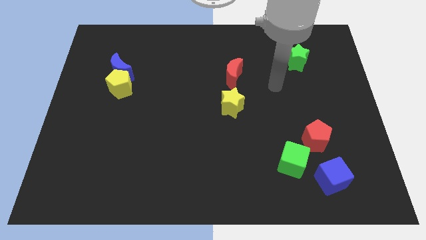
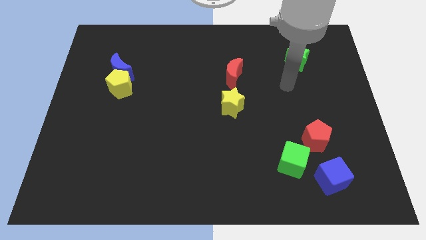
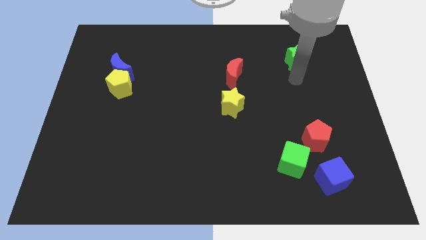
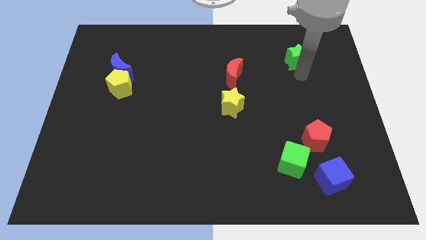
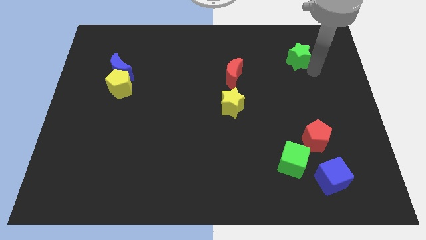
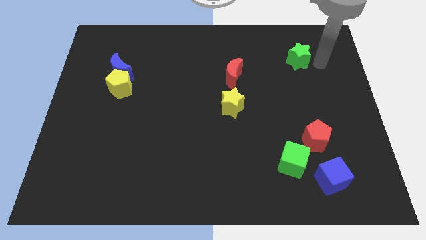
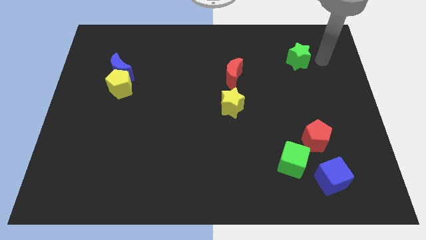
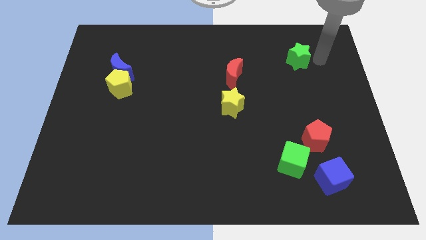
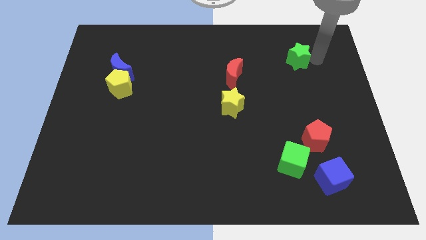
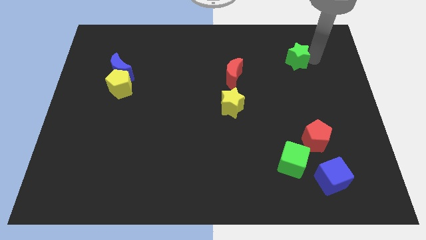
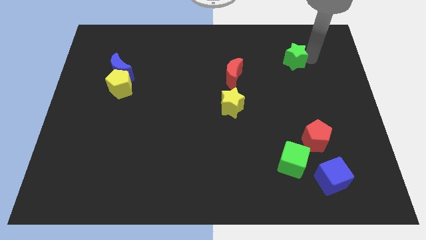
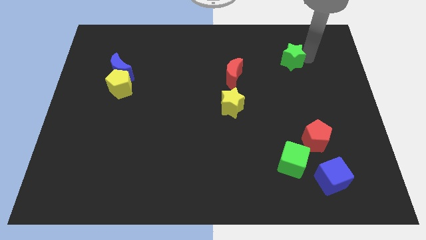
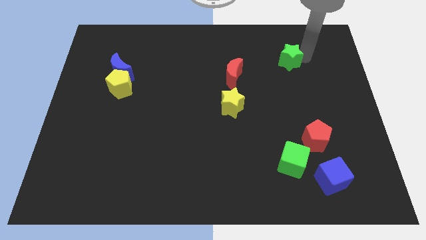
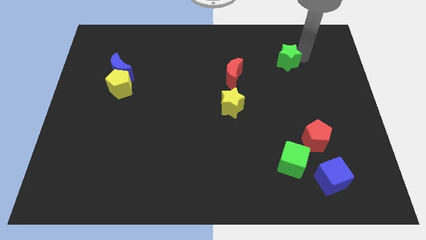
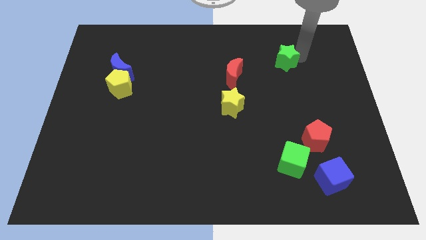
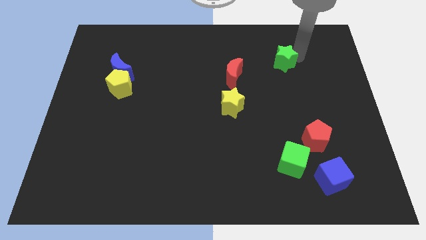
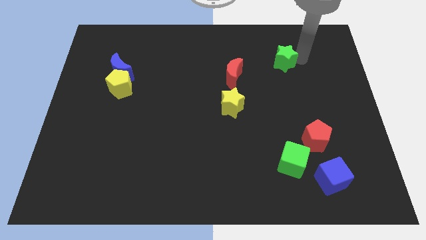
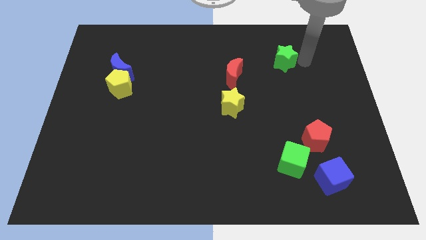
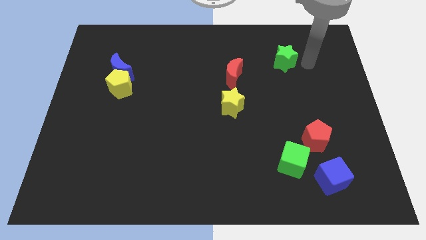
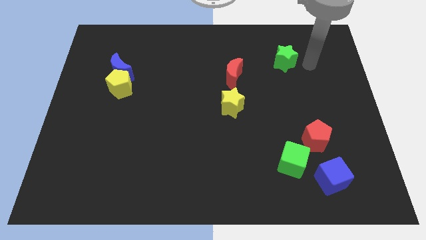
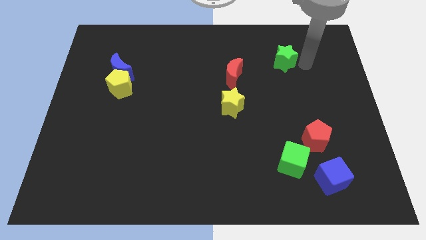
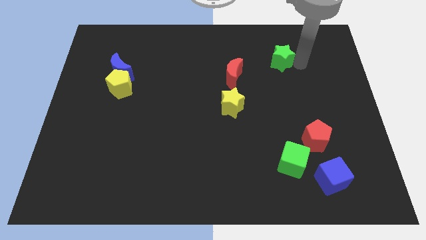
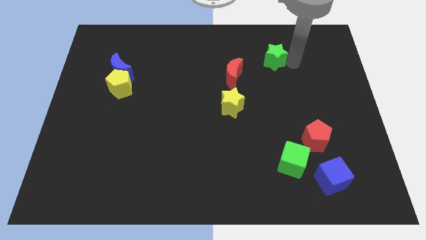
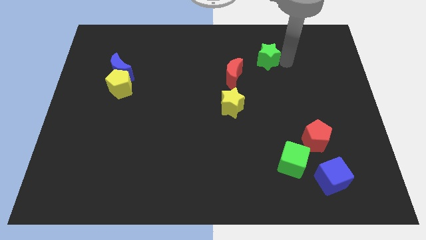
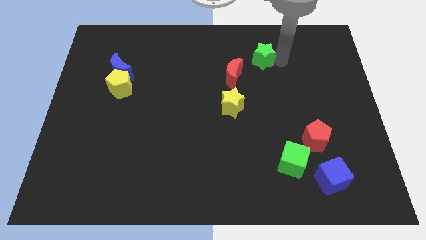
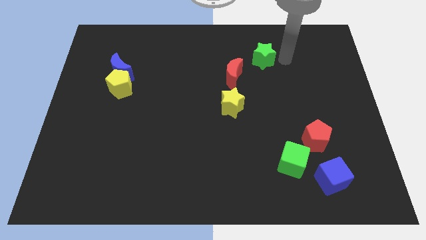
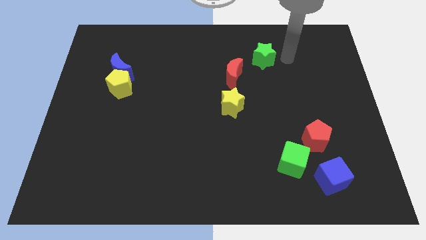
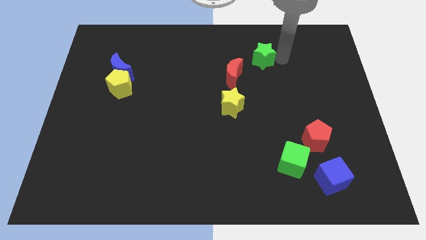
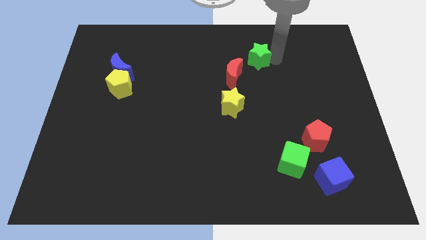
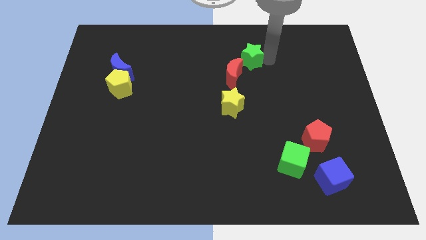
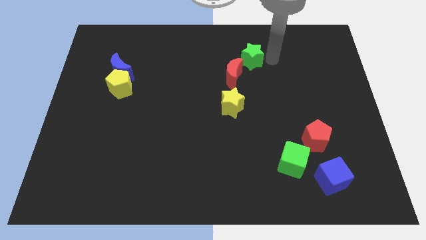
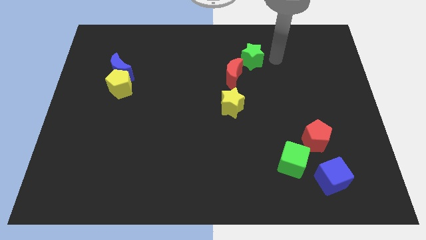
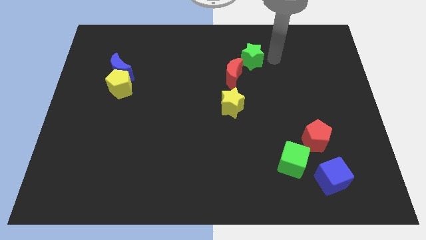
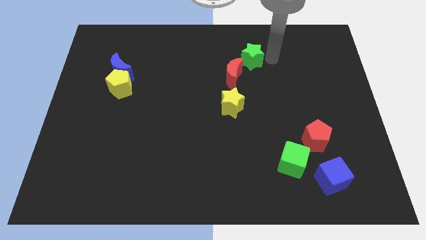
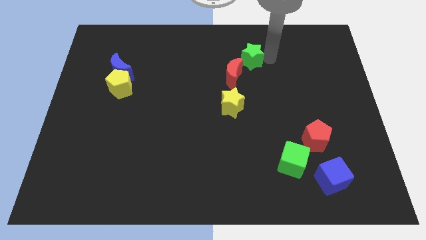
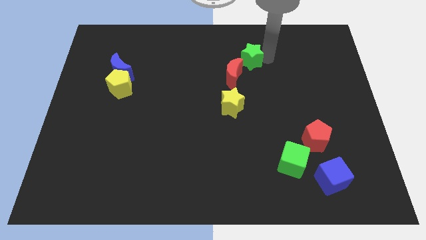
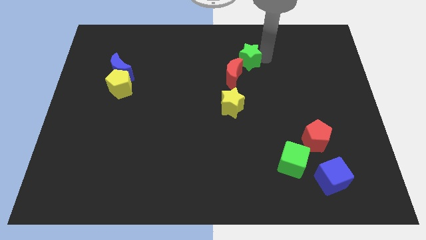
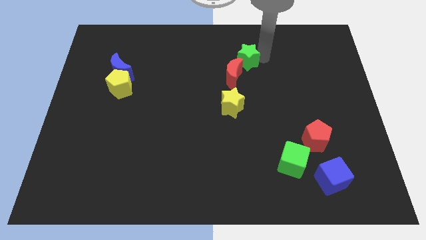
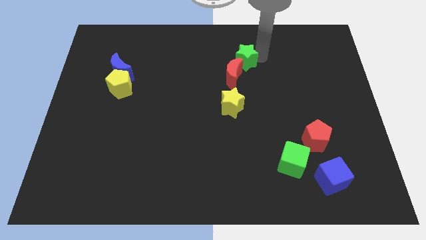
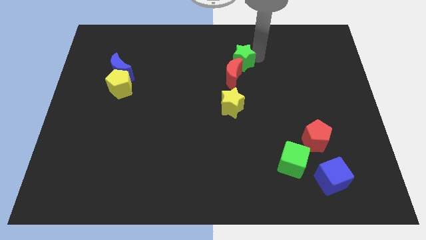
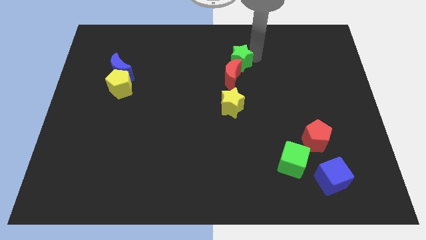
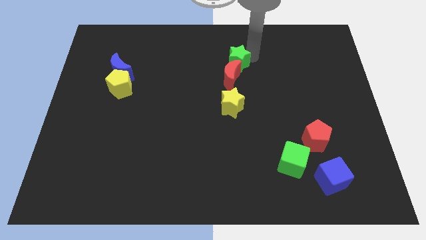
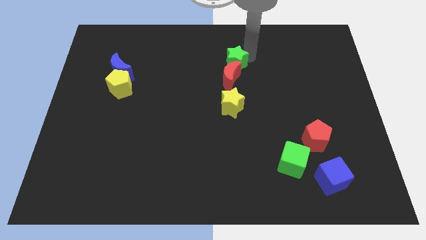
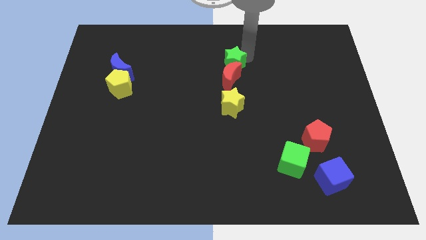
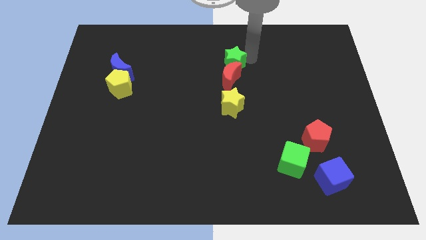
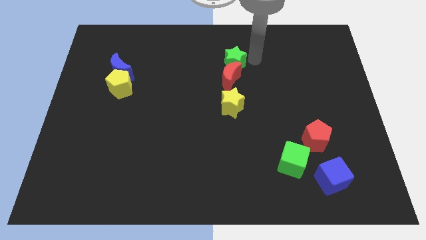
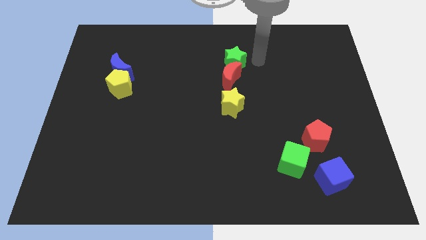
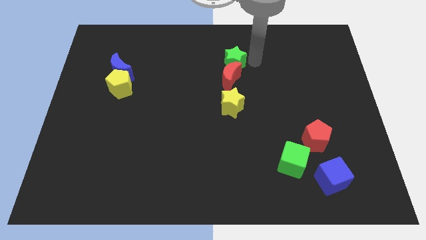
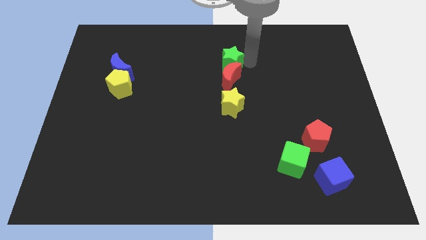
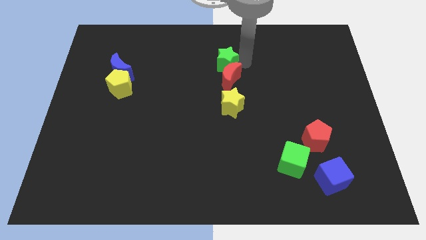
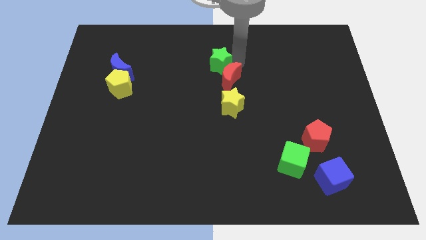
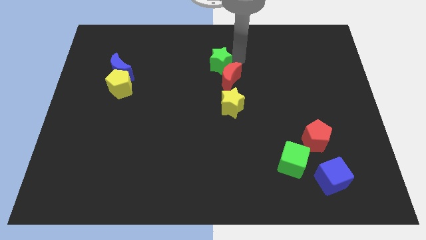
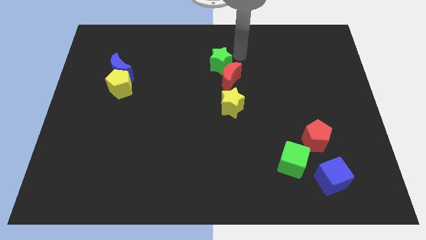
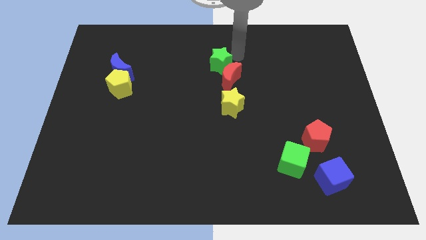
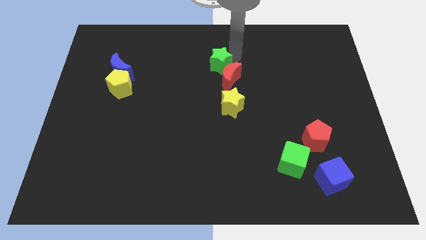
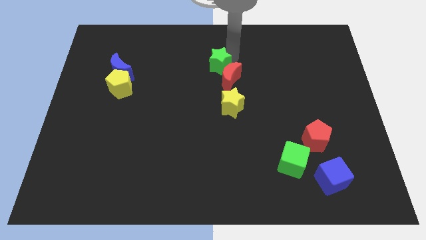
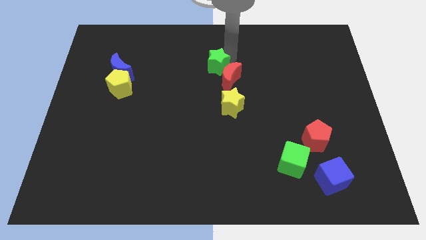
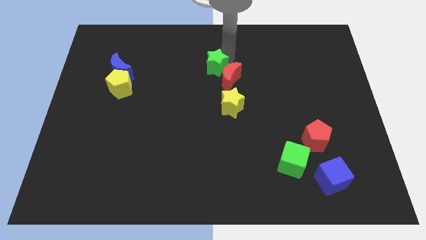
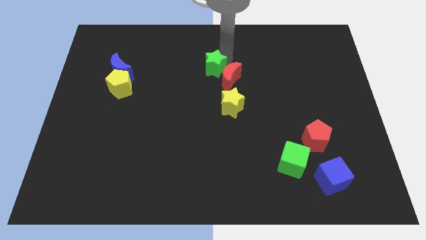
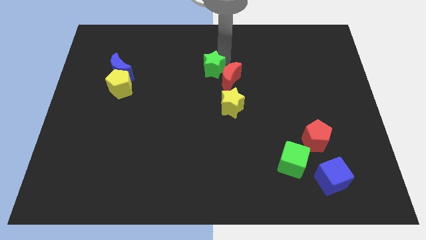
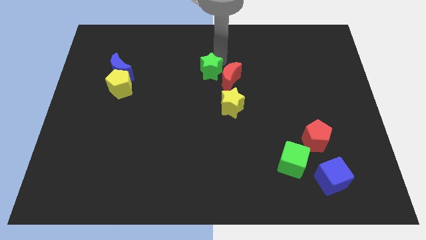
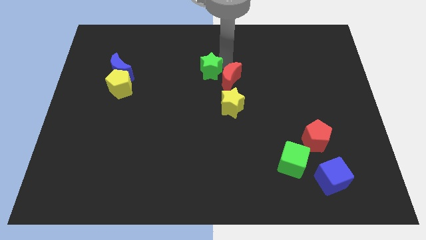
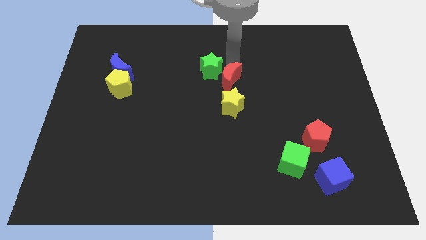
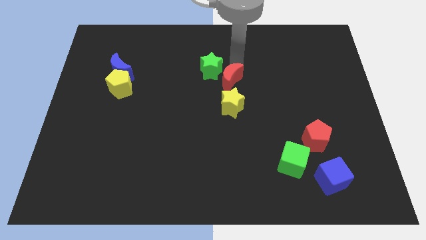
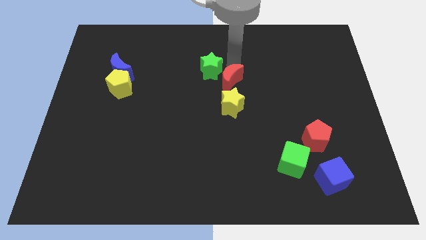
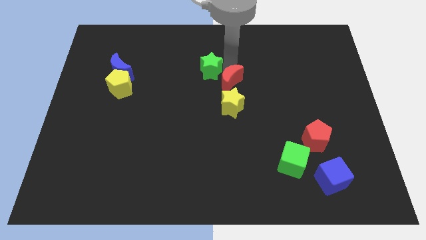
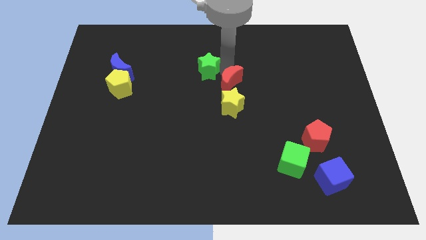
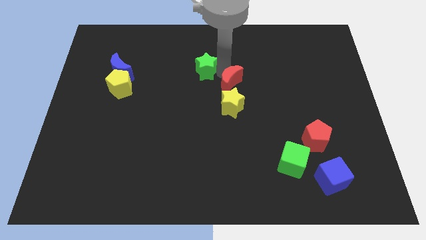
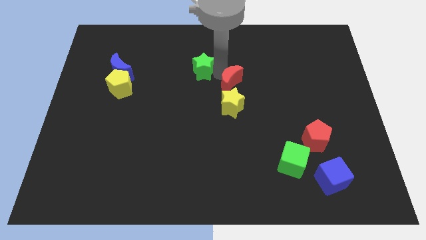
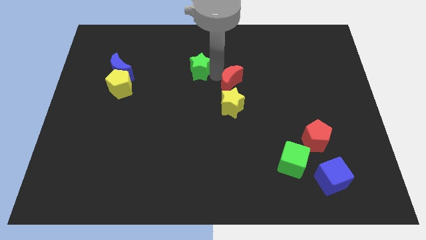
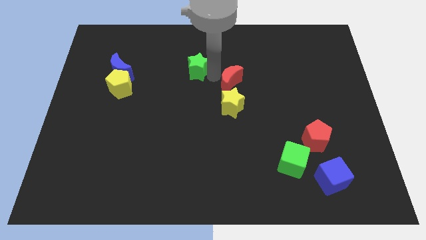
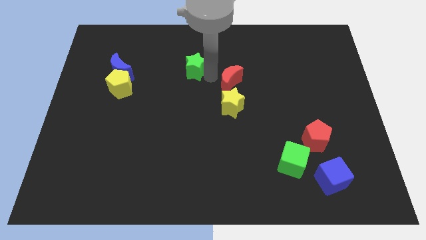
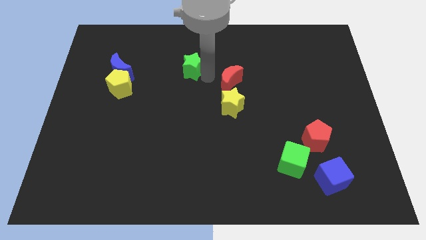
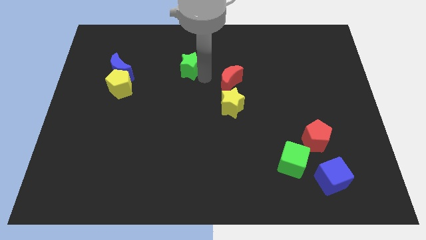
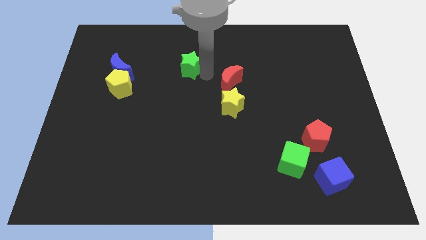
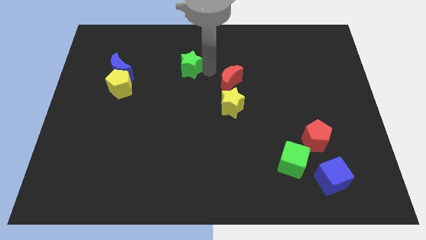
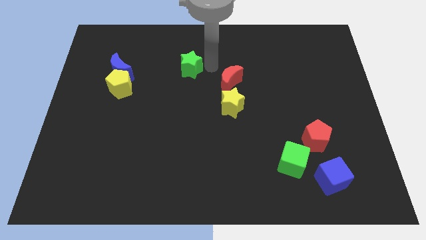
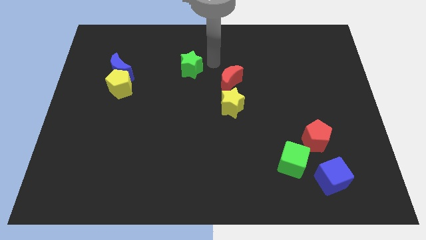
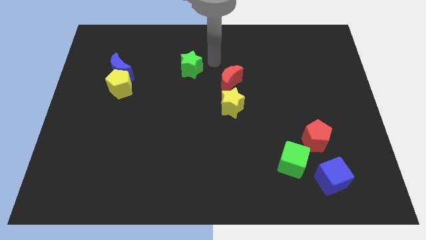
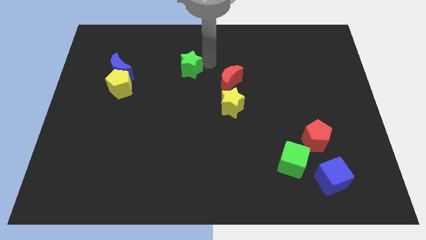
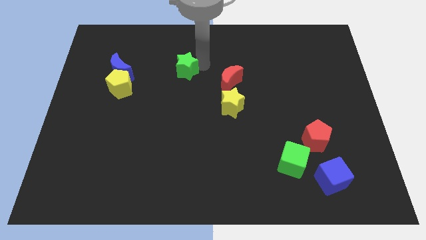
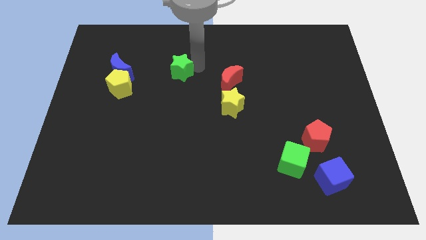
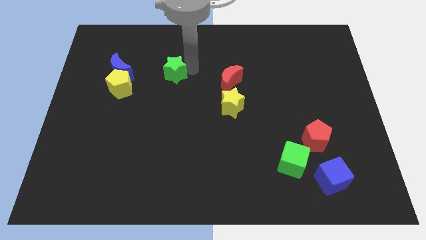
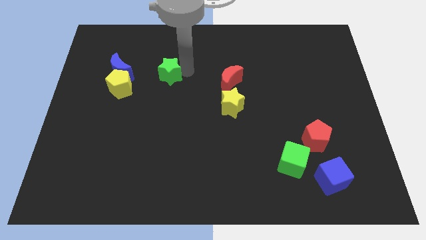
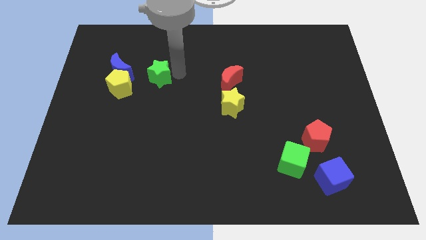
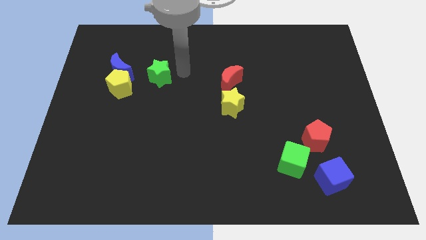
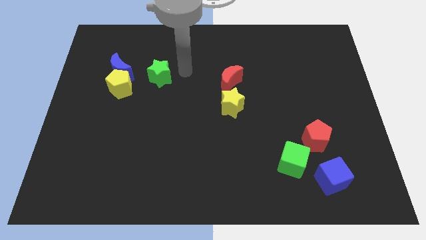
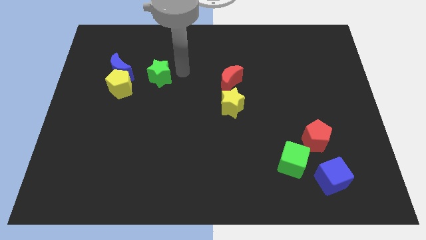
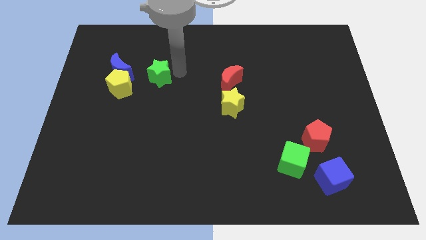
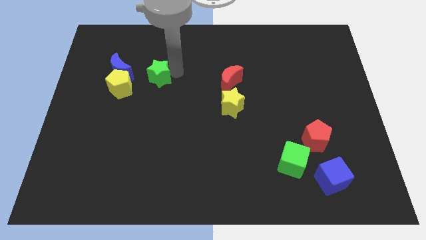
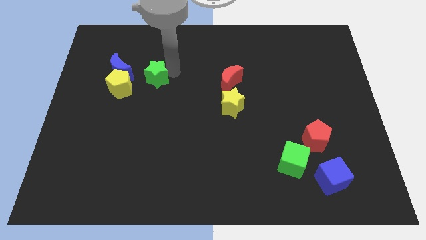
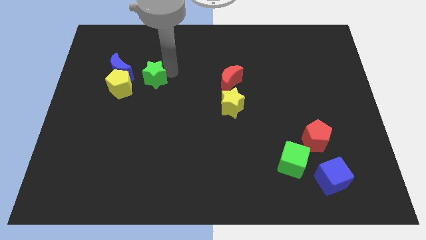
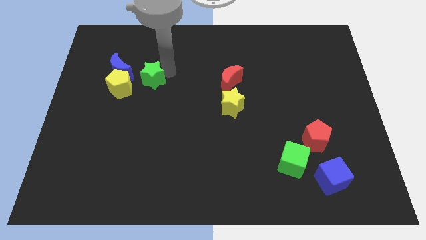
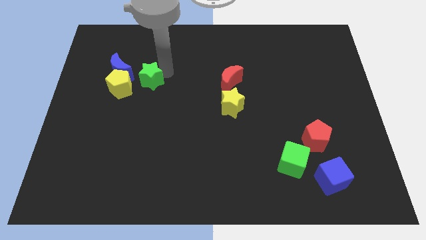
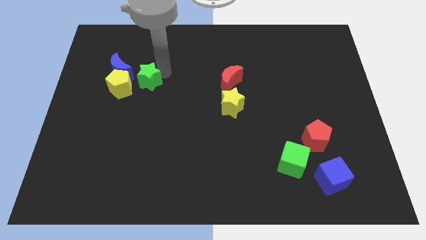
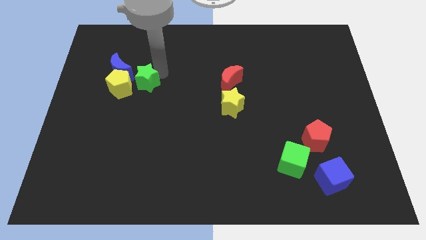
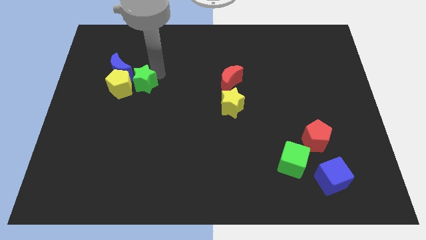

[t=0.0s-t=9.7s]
move the green star next to the yellow pentagon
